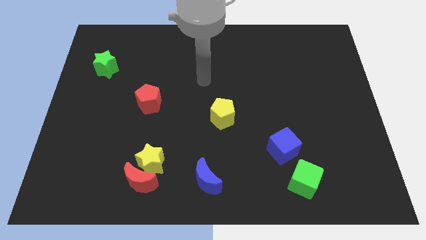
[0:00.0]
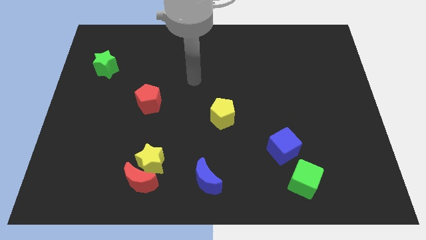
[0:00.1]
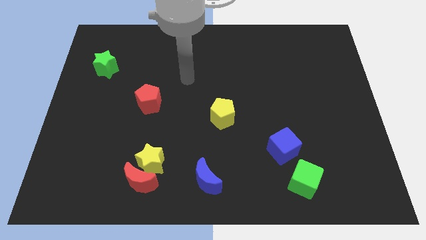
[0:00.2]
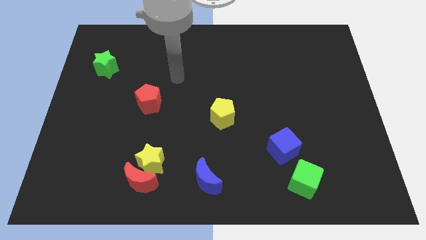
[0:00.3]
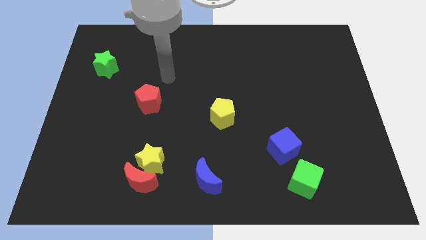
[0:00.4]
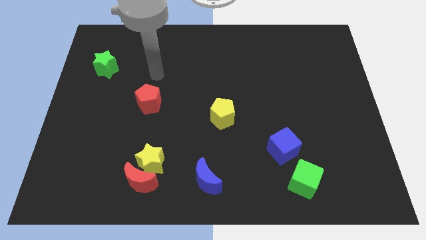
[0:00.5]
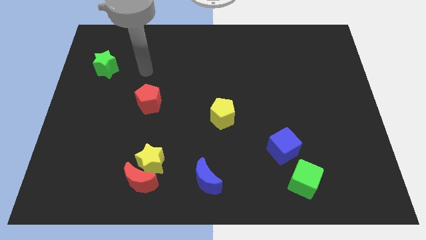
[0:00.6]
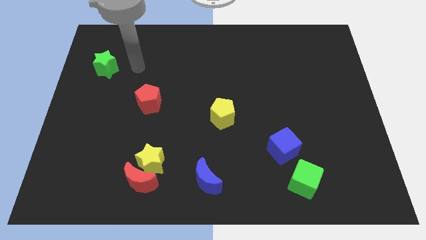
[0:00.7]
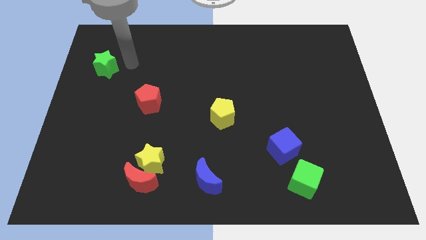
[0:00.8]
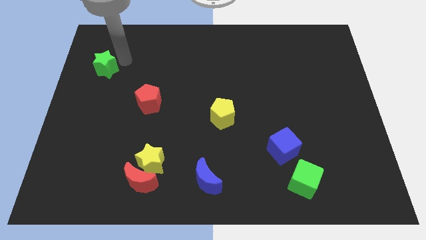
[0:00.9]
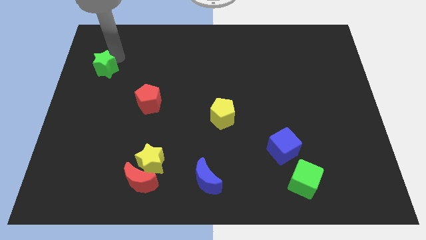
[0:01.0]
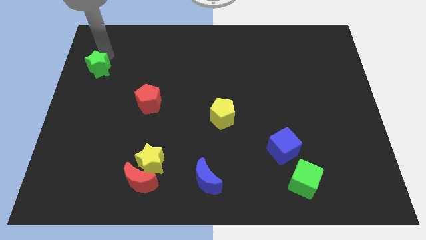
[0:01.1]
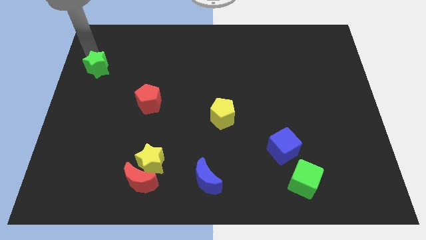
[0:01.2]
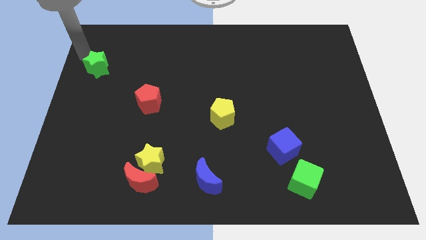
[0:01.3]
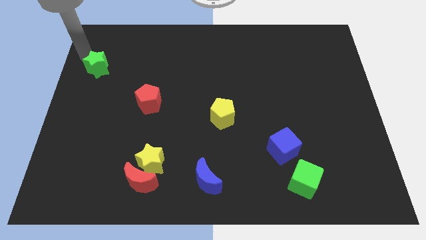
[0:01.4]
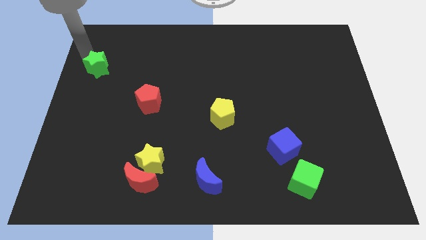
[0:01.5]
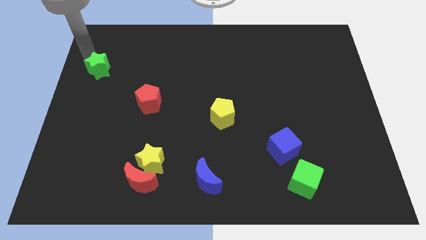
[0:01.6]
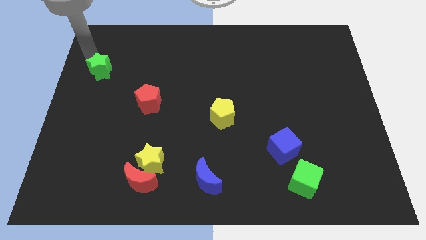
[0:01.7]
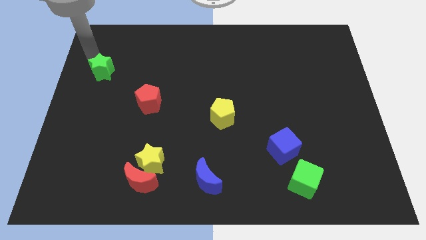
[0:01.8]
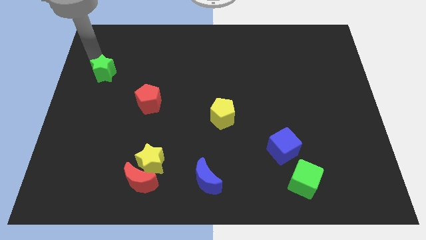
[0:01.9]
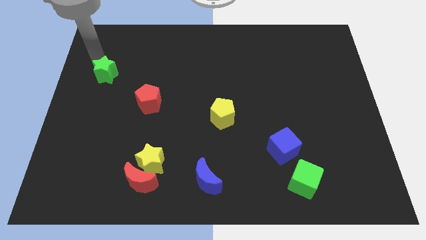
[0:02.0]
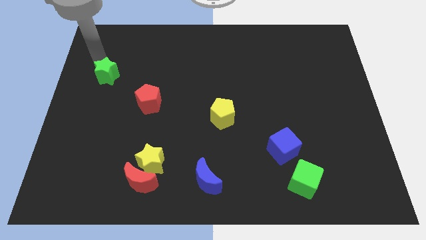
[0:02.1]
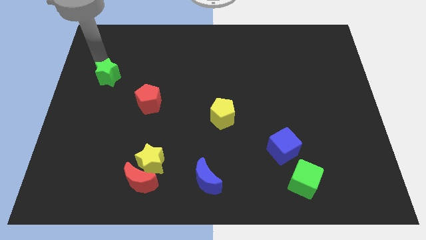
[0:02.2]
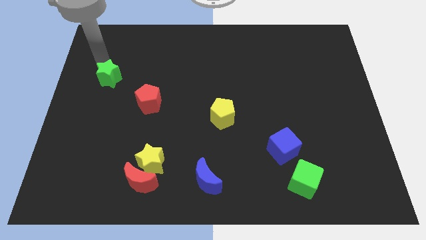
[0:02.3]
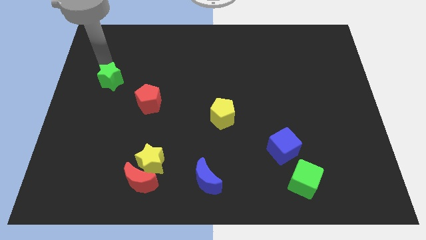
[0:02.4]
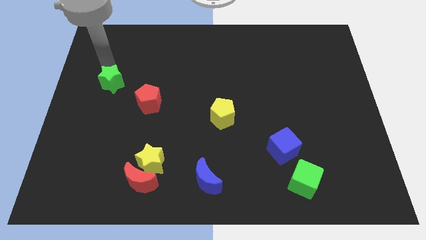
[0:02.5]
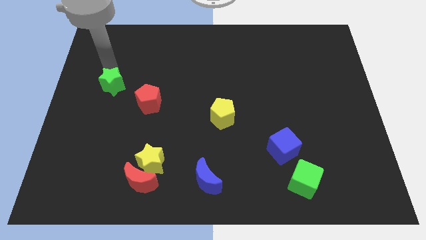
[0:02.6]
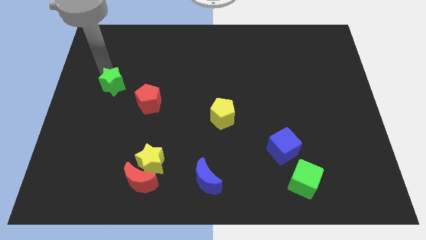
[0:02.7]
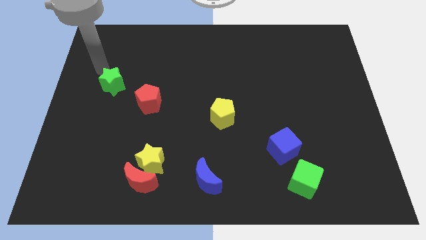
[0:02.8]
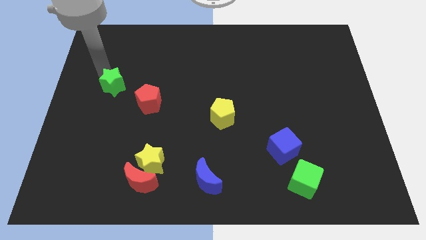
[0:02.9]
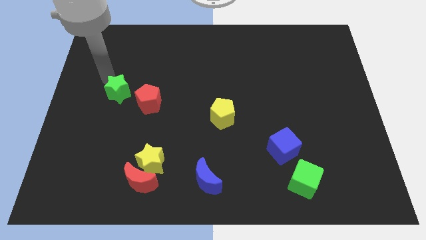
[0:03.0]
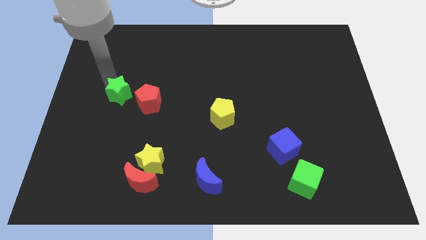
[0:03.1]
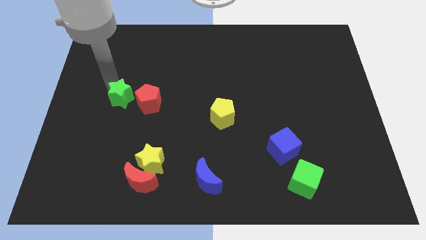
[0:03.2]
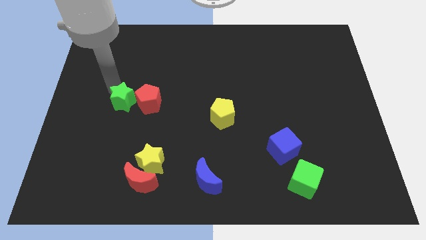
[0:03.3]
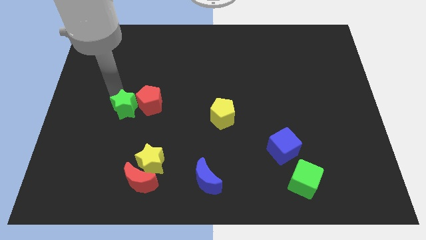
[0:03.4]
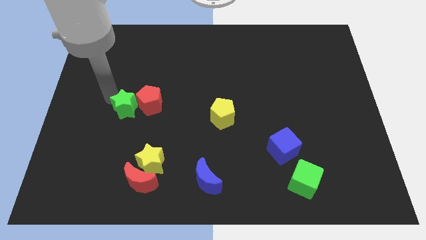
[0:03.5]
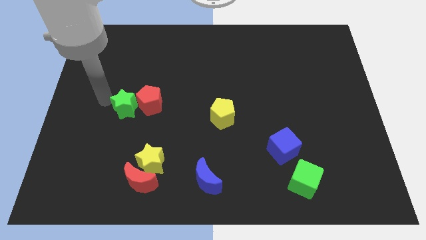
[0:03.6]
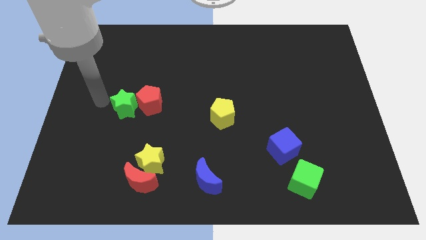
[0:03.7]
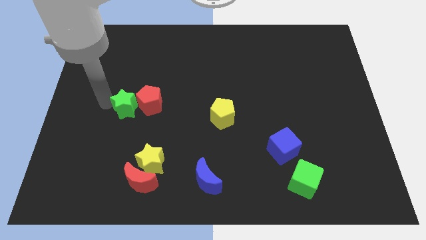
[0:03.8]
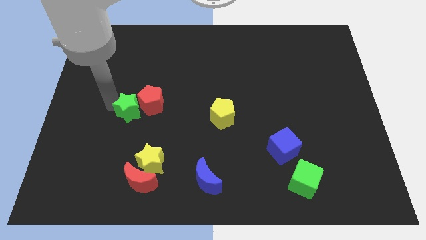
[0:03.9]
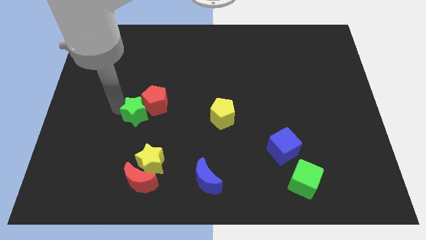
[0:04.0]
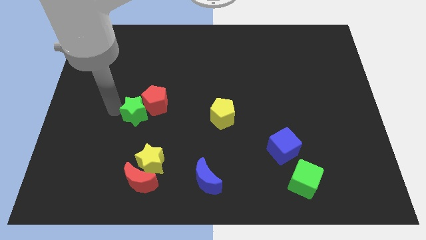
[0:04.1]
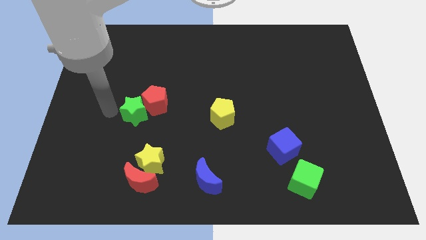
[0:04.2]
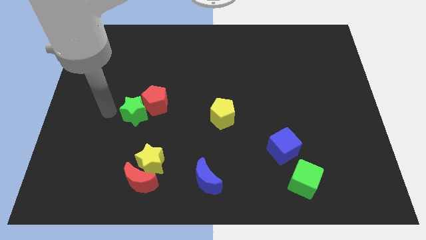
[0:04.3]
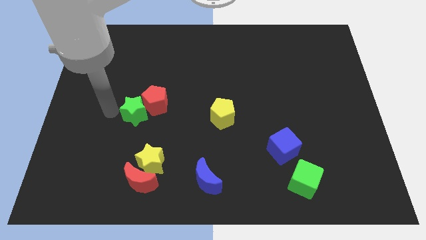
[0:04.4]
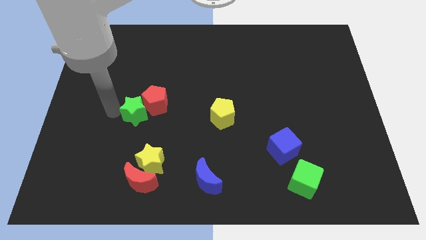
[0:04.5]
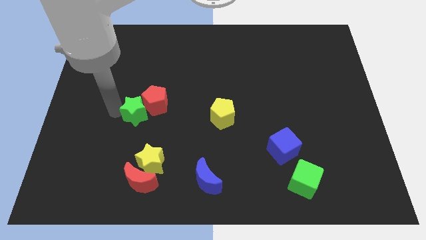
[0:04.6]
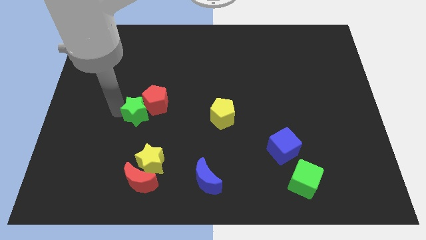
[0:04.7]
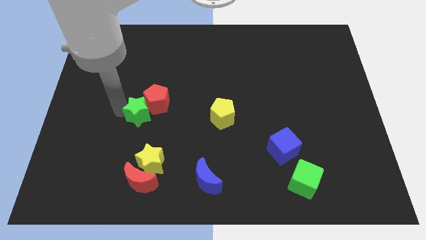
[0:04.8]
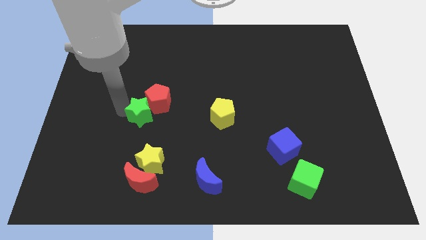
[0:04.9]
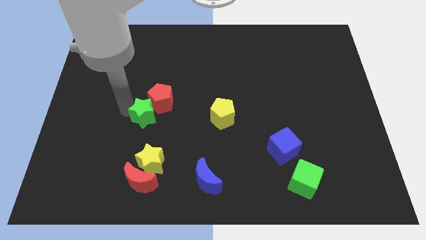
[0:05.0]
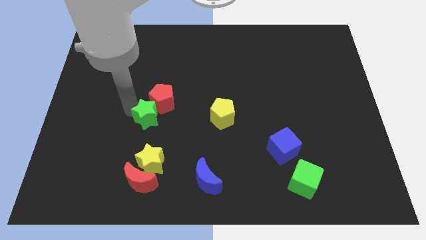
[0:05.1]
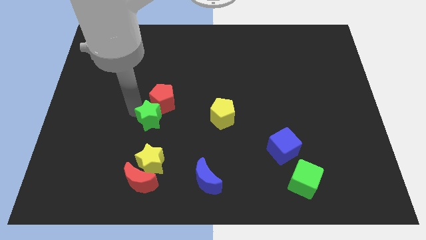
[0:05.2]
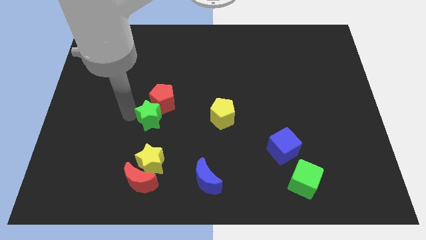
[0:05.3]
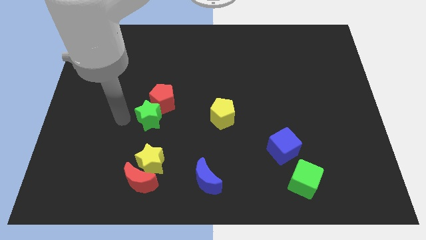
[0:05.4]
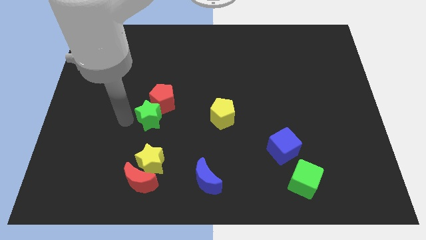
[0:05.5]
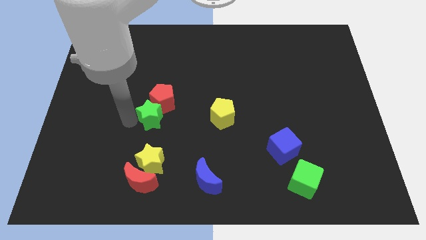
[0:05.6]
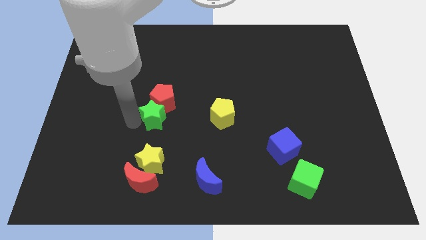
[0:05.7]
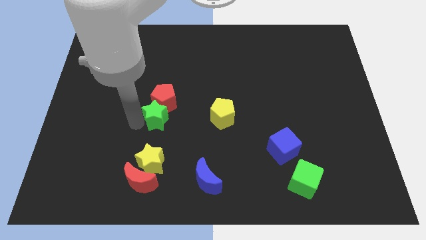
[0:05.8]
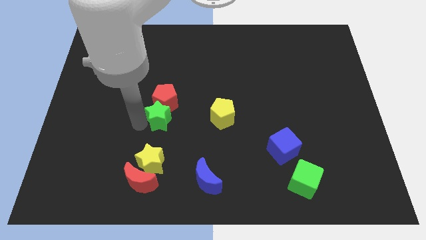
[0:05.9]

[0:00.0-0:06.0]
push the green star to the bottom right of the red pentagon

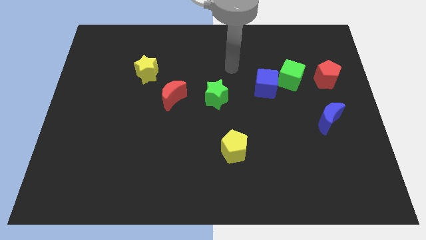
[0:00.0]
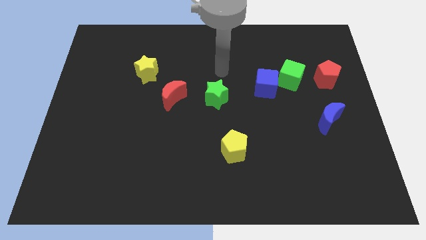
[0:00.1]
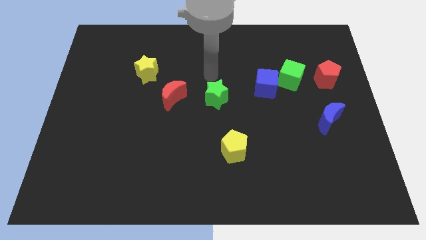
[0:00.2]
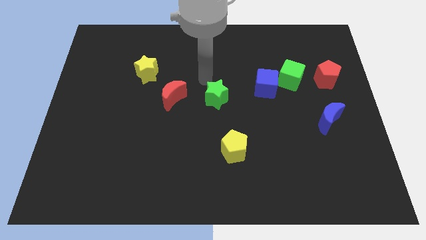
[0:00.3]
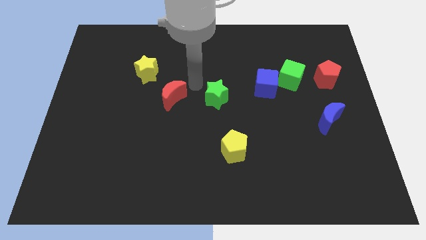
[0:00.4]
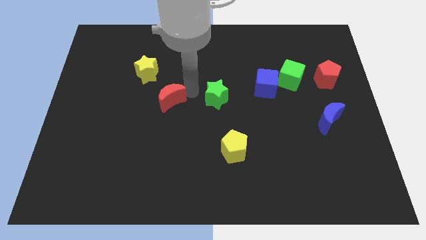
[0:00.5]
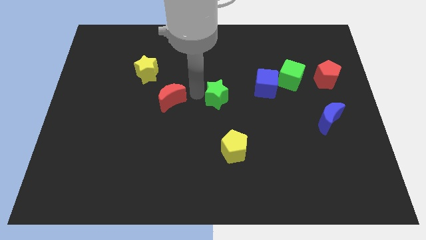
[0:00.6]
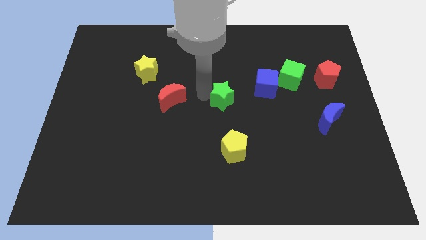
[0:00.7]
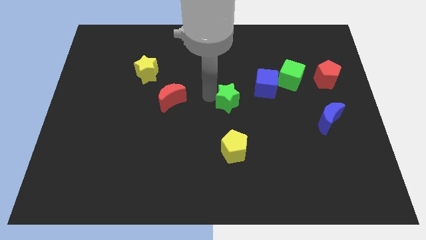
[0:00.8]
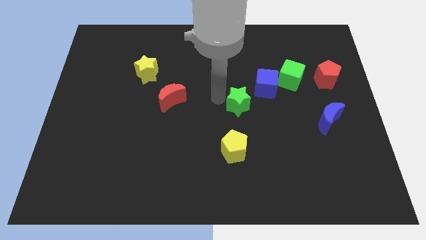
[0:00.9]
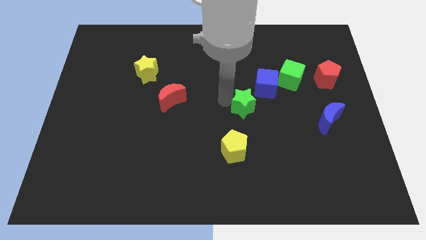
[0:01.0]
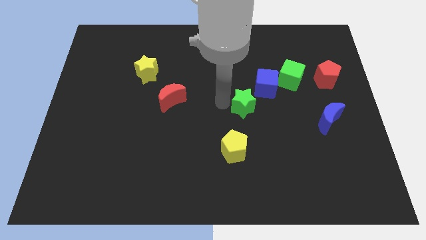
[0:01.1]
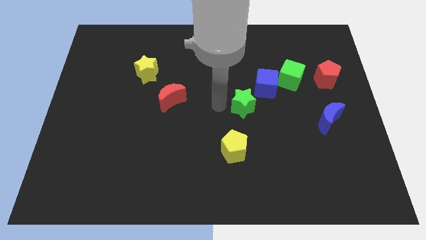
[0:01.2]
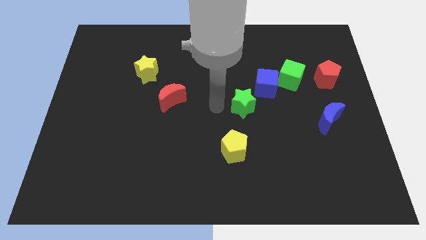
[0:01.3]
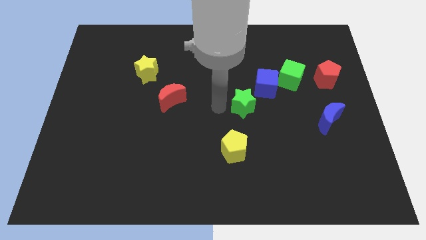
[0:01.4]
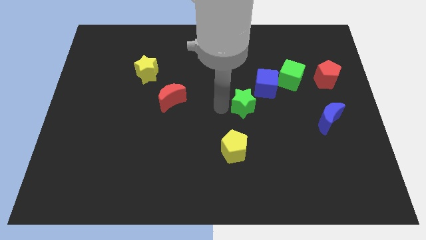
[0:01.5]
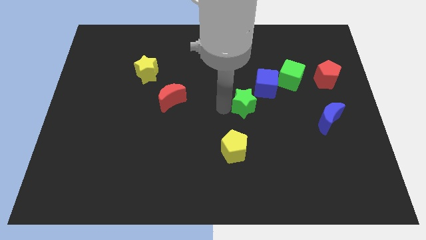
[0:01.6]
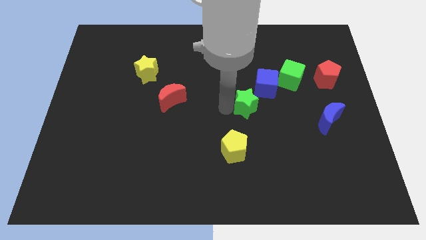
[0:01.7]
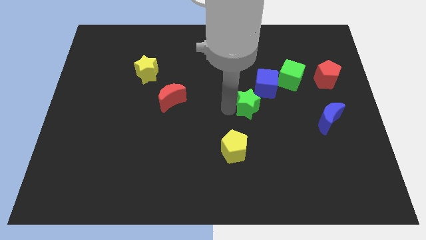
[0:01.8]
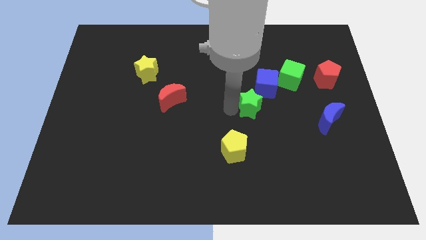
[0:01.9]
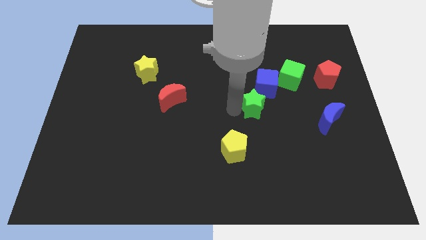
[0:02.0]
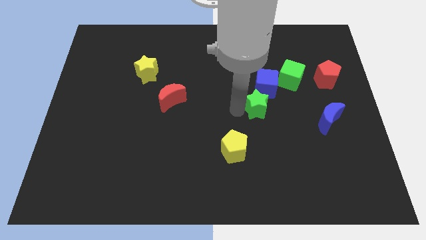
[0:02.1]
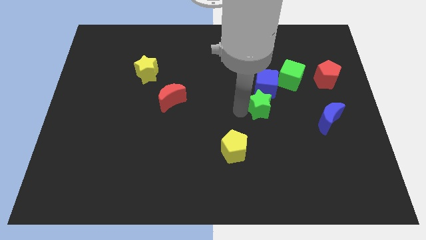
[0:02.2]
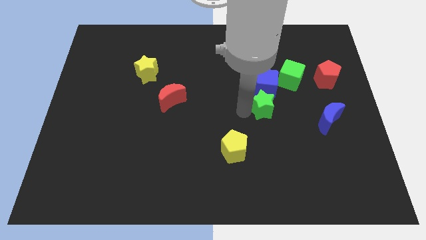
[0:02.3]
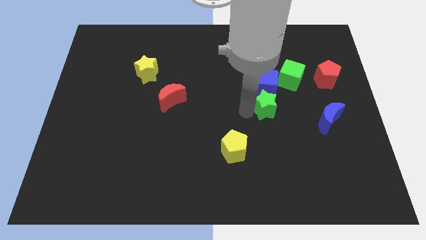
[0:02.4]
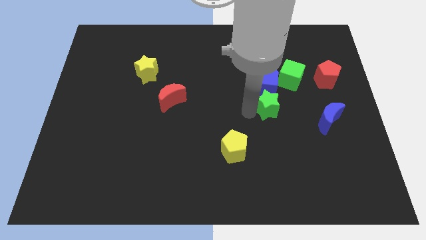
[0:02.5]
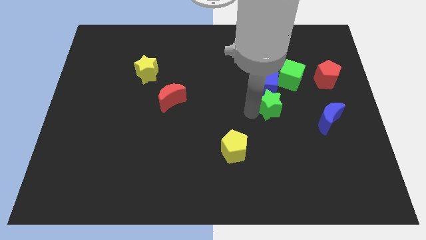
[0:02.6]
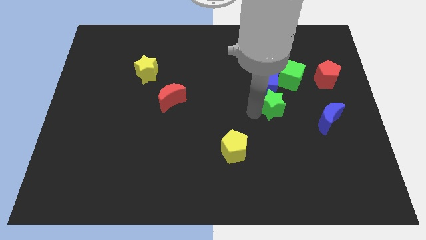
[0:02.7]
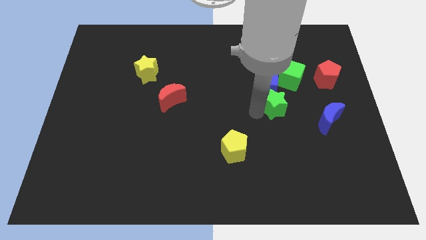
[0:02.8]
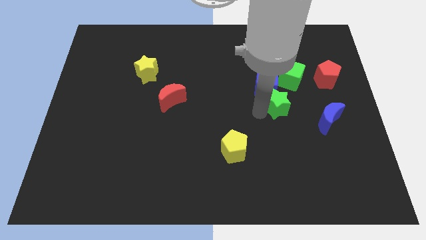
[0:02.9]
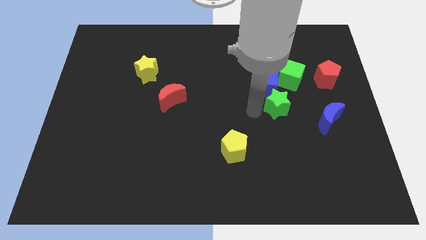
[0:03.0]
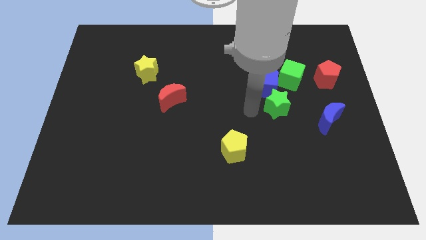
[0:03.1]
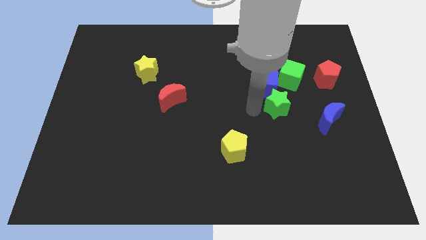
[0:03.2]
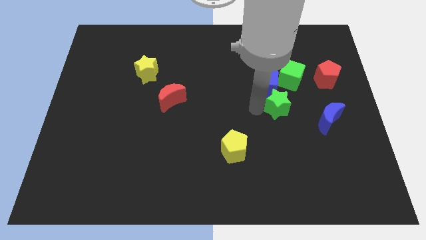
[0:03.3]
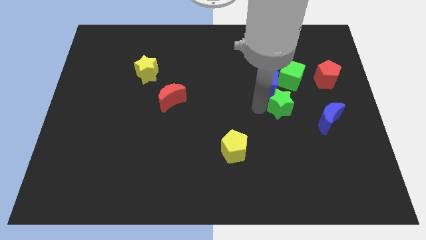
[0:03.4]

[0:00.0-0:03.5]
push the green star to the top left of the blue moon
